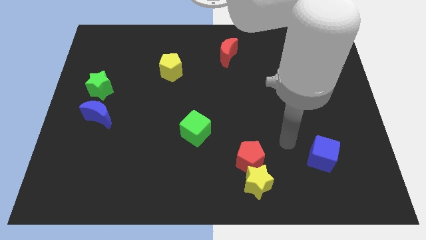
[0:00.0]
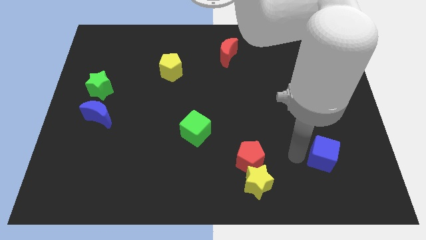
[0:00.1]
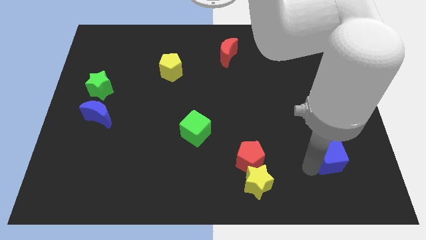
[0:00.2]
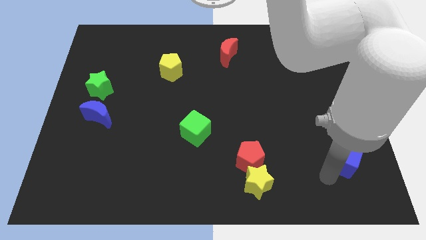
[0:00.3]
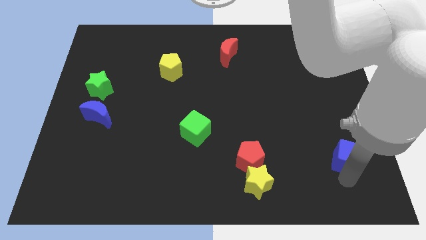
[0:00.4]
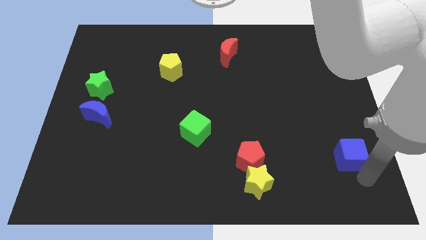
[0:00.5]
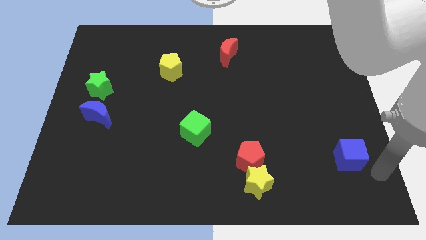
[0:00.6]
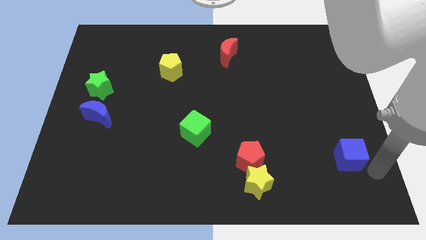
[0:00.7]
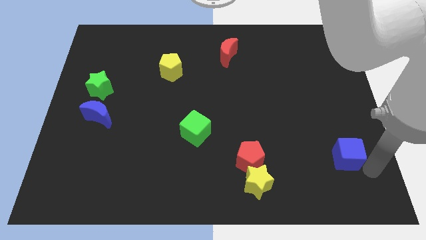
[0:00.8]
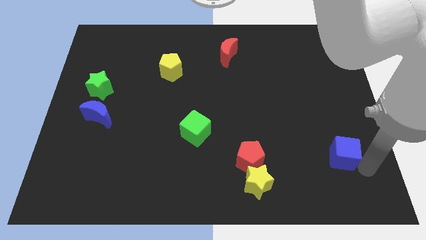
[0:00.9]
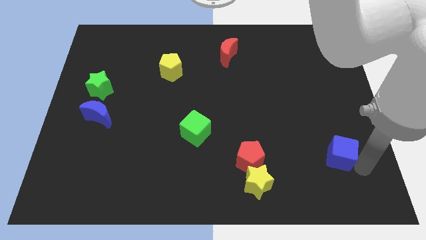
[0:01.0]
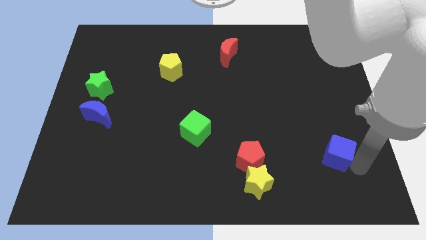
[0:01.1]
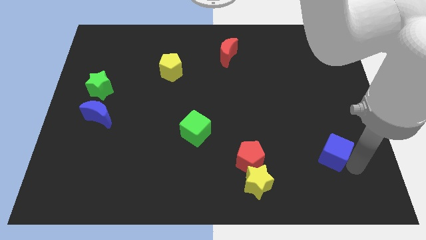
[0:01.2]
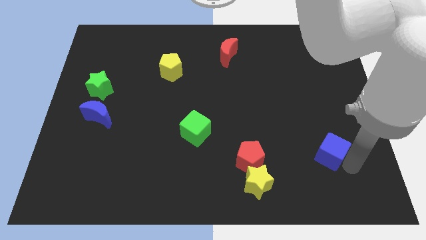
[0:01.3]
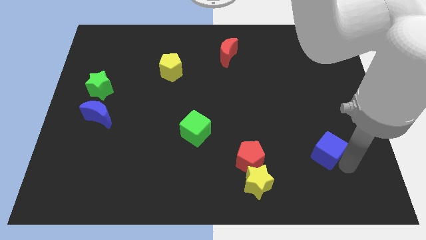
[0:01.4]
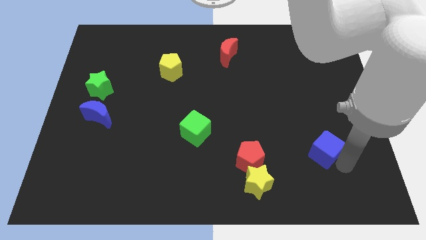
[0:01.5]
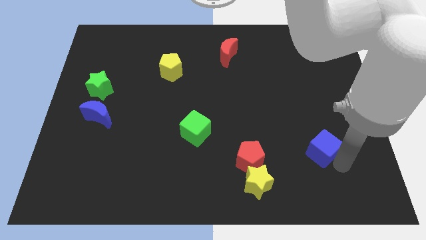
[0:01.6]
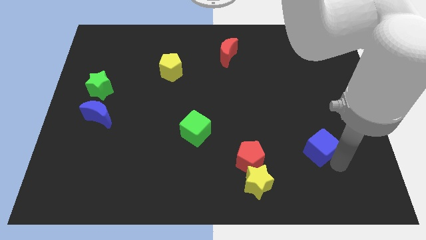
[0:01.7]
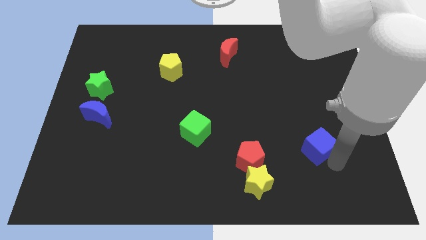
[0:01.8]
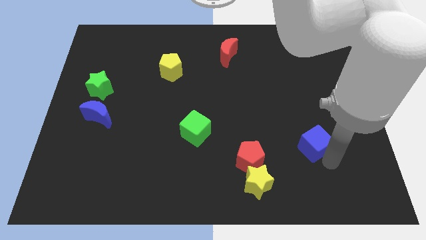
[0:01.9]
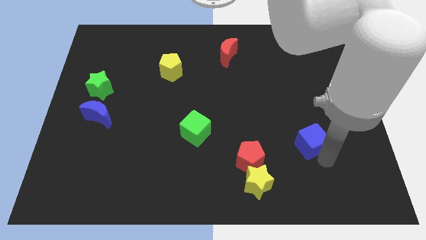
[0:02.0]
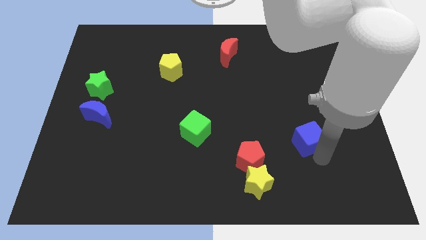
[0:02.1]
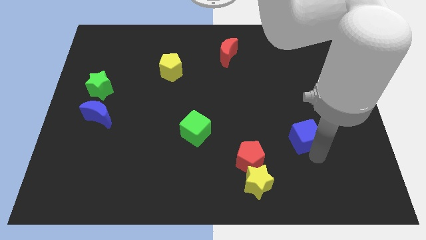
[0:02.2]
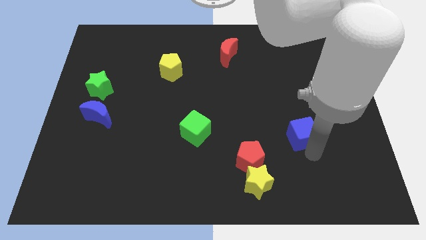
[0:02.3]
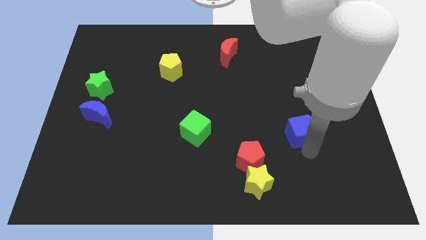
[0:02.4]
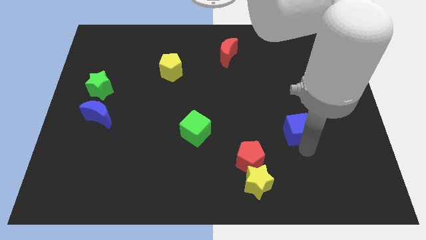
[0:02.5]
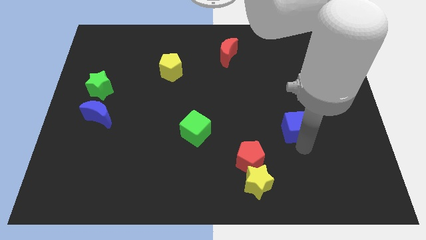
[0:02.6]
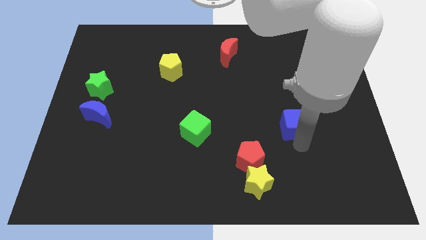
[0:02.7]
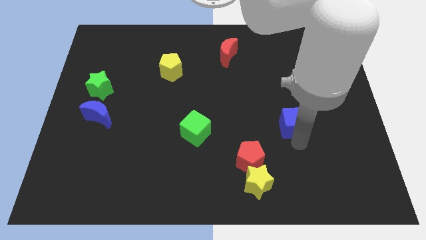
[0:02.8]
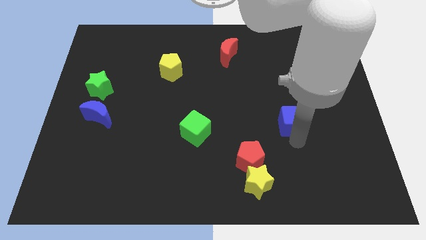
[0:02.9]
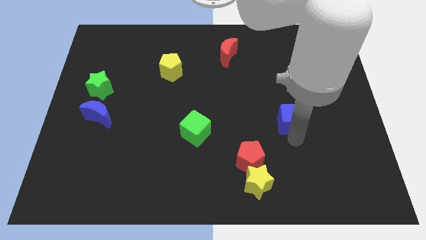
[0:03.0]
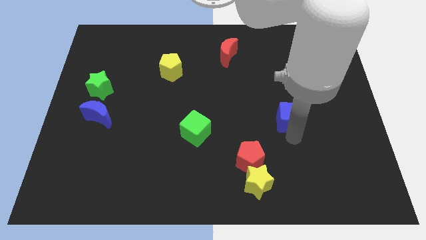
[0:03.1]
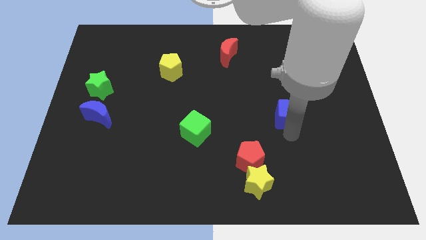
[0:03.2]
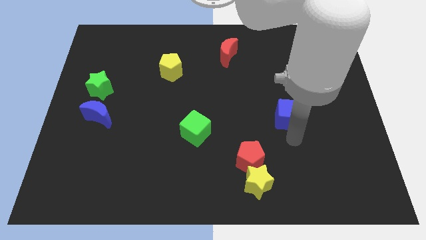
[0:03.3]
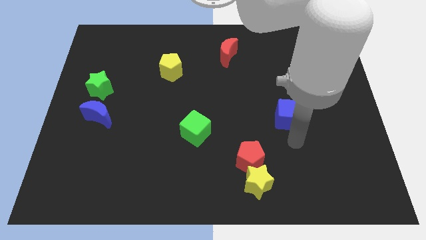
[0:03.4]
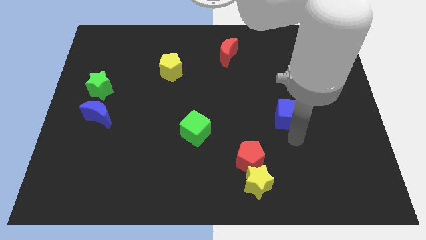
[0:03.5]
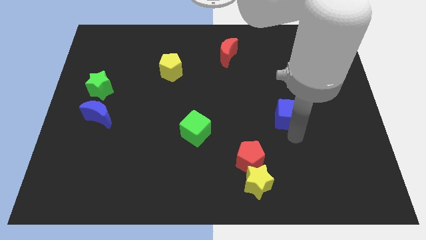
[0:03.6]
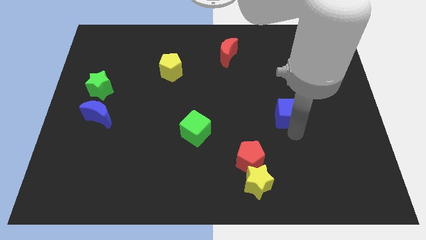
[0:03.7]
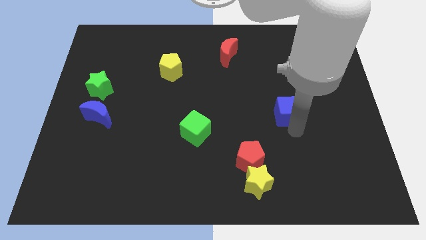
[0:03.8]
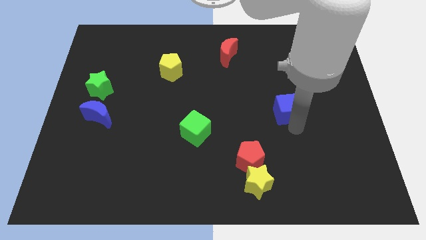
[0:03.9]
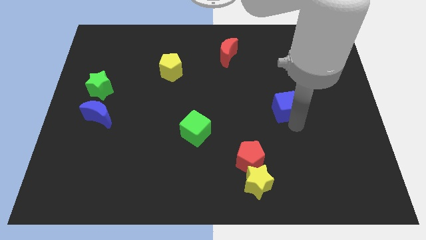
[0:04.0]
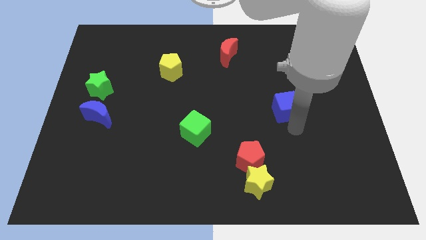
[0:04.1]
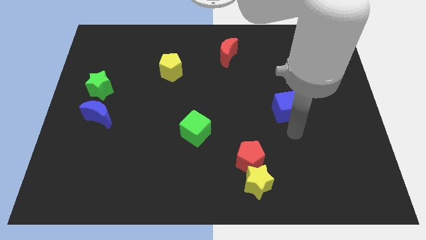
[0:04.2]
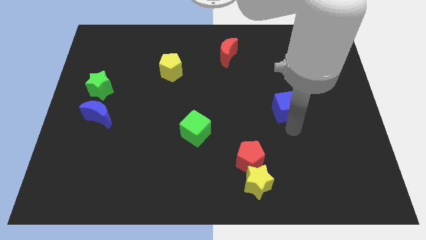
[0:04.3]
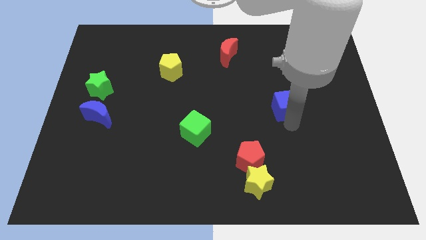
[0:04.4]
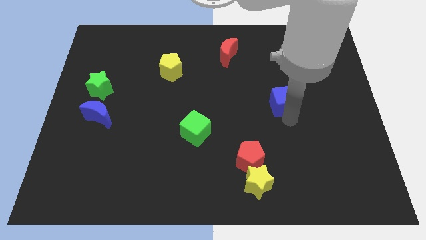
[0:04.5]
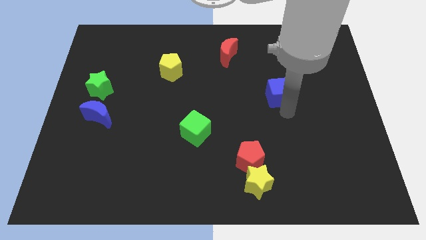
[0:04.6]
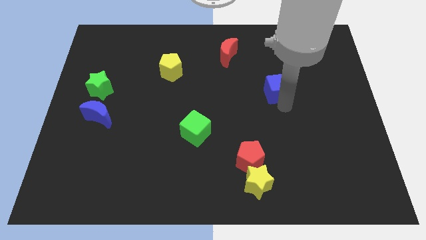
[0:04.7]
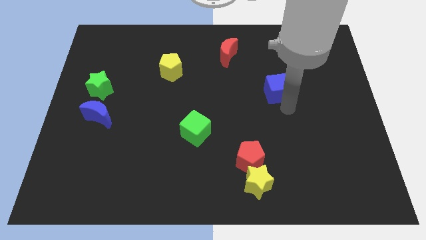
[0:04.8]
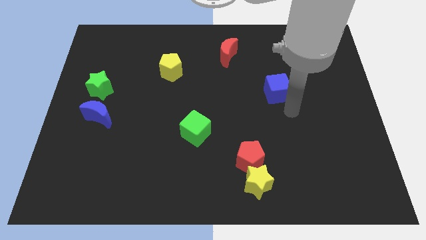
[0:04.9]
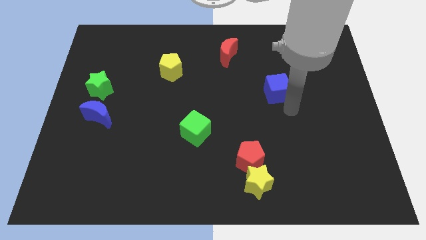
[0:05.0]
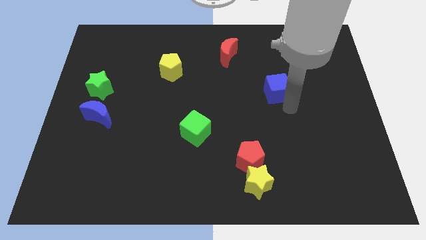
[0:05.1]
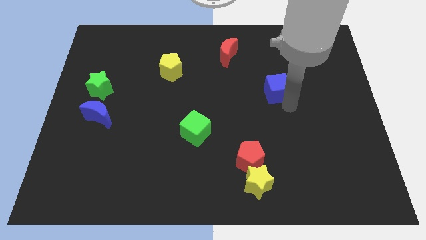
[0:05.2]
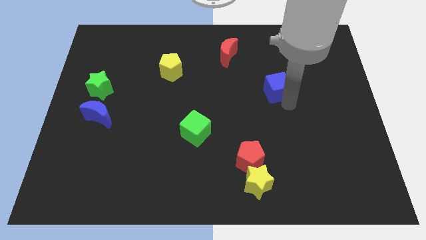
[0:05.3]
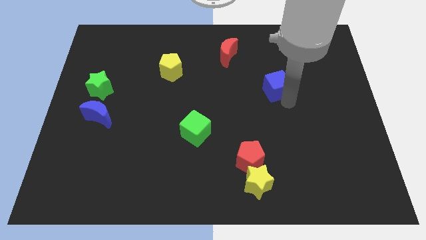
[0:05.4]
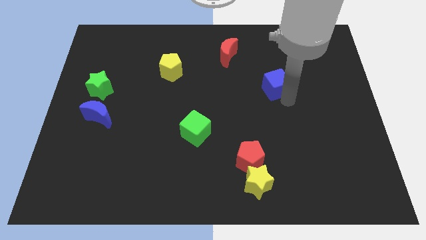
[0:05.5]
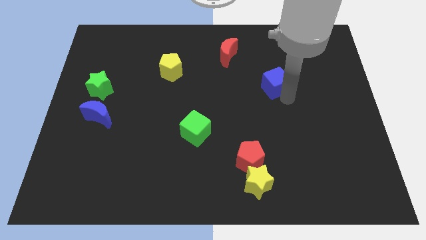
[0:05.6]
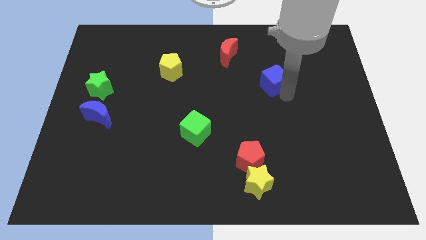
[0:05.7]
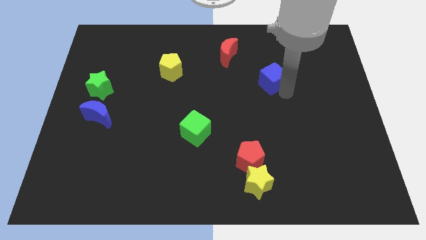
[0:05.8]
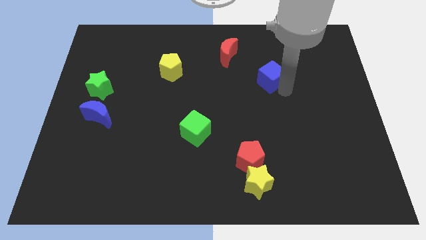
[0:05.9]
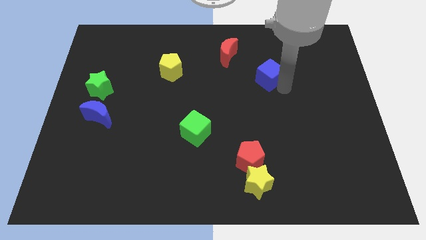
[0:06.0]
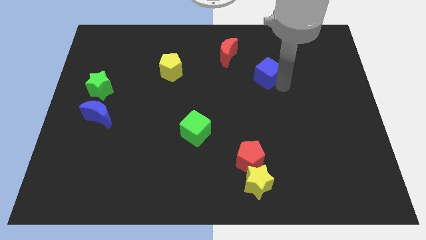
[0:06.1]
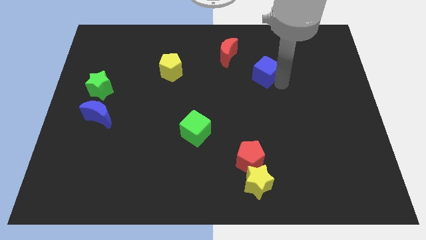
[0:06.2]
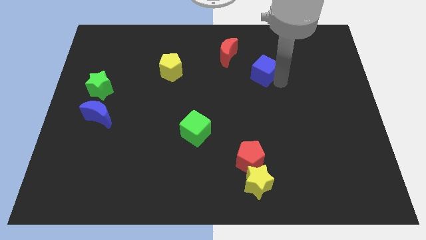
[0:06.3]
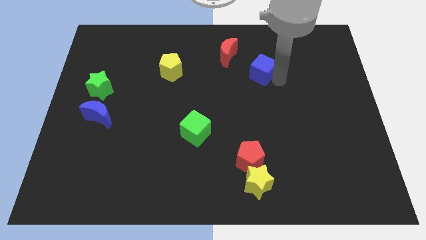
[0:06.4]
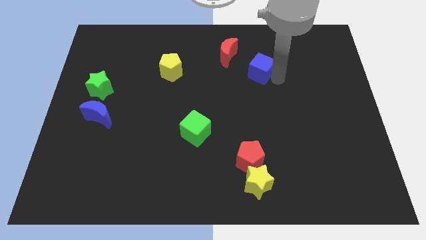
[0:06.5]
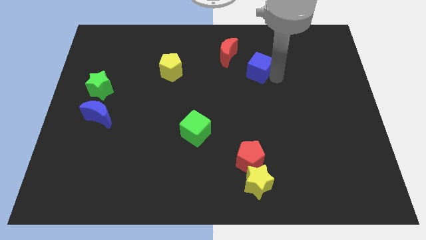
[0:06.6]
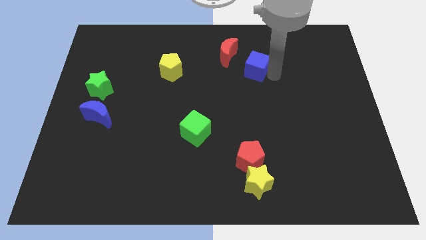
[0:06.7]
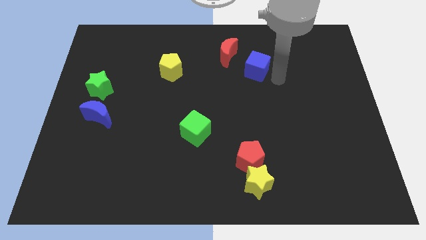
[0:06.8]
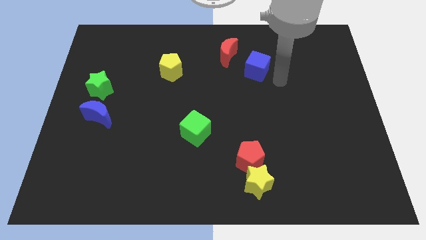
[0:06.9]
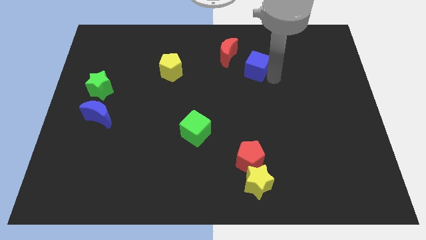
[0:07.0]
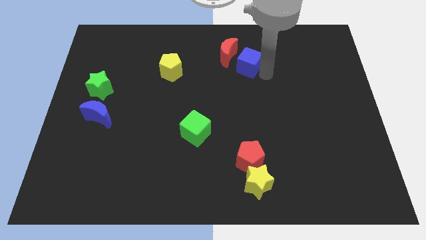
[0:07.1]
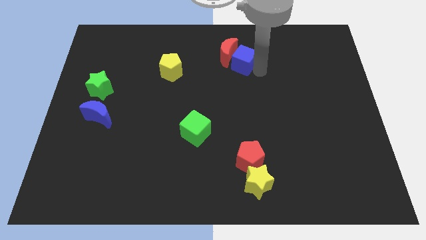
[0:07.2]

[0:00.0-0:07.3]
put the blue cube close to the red moon
